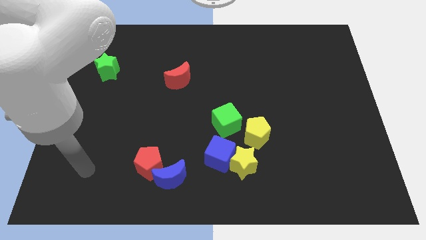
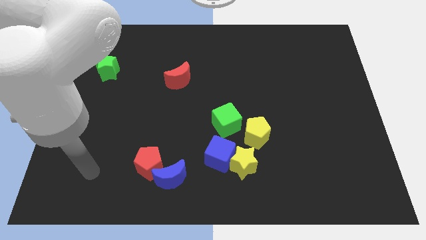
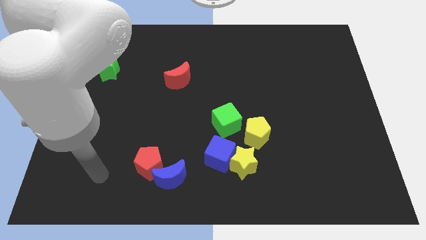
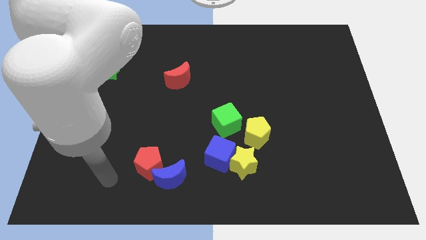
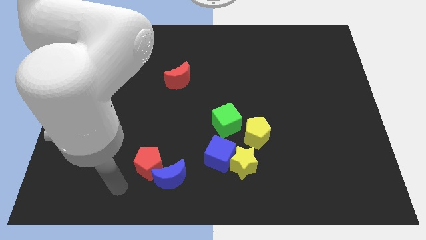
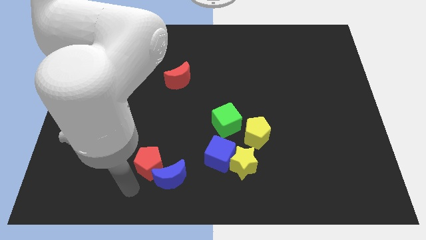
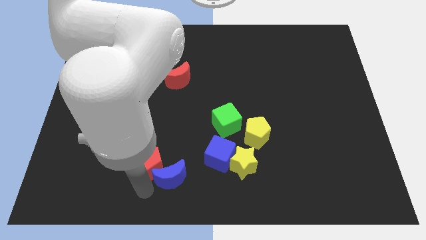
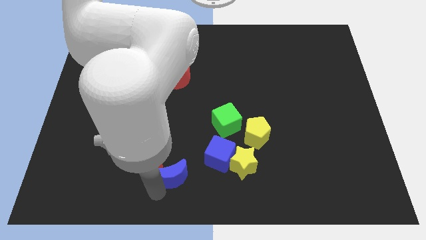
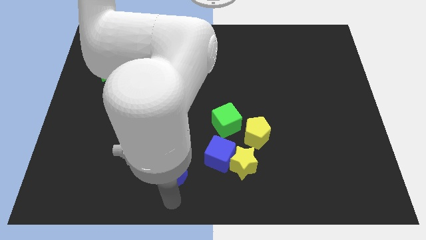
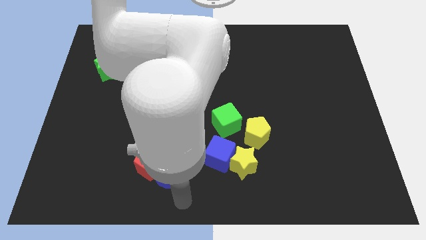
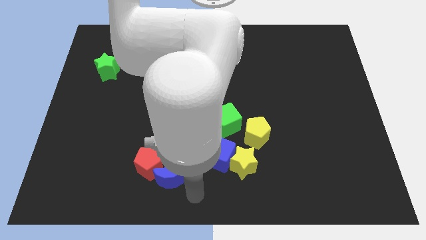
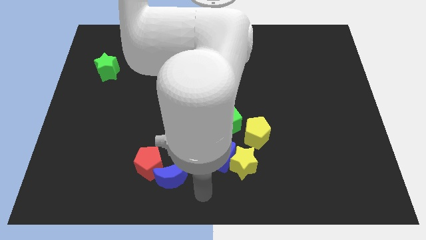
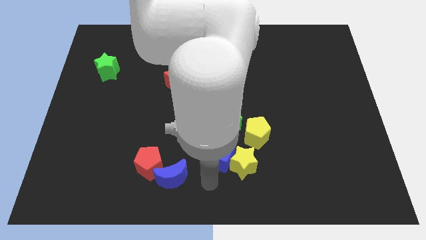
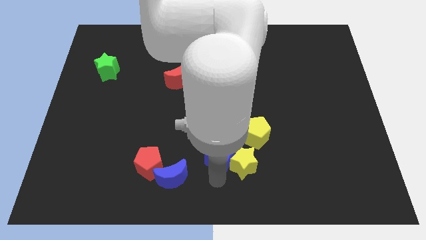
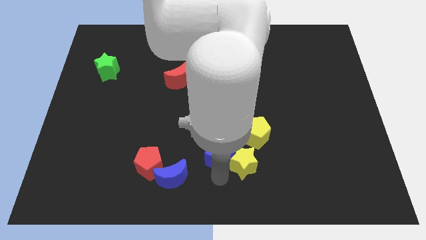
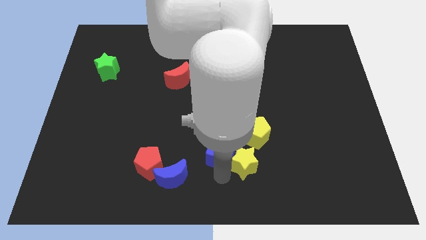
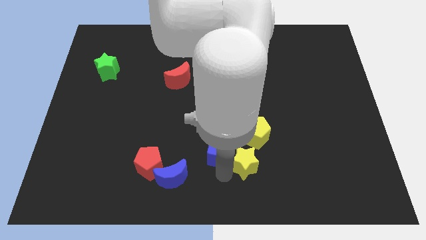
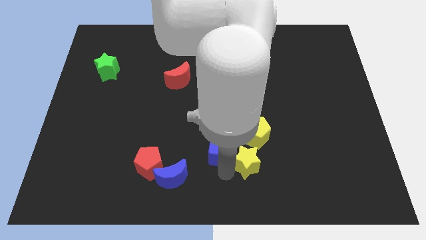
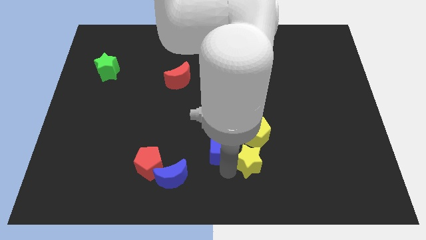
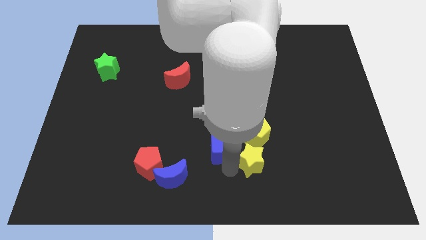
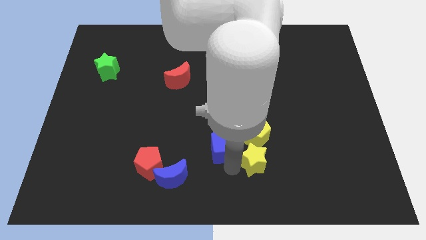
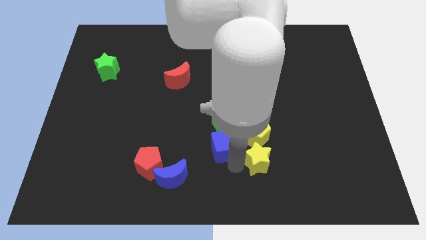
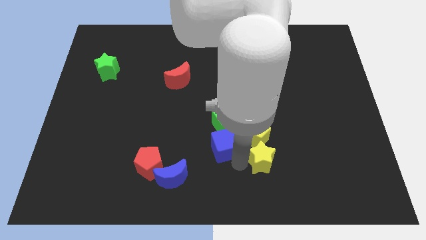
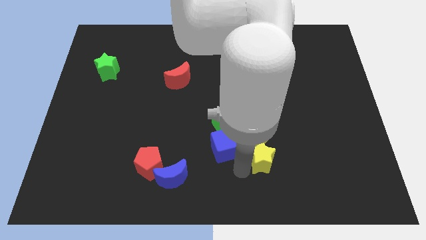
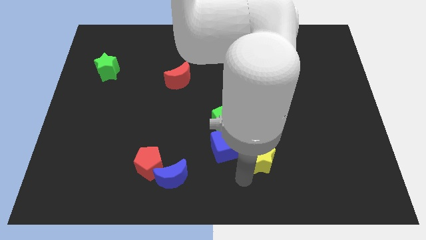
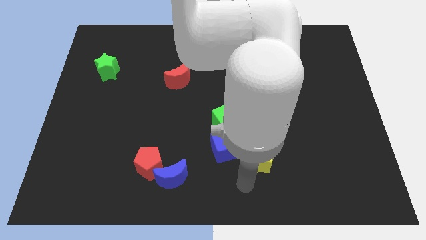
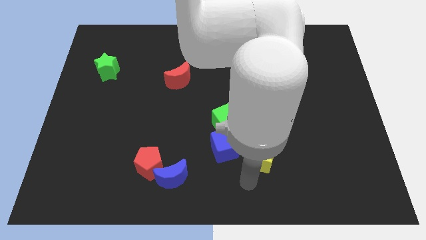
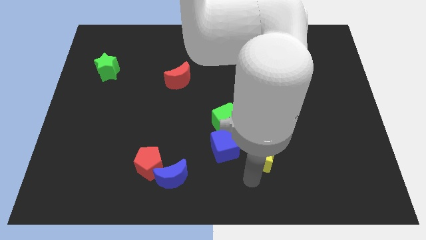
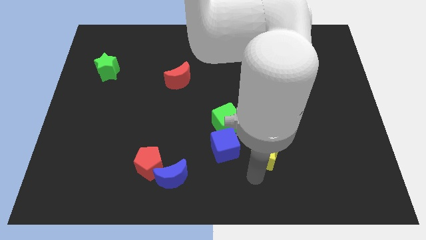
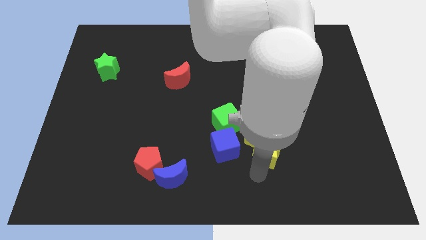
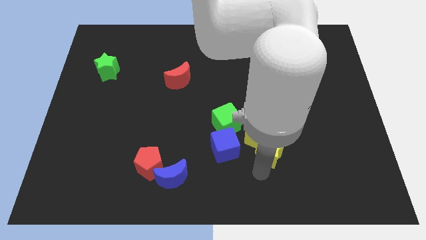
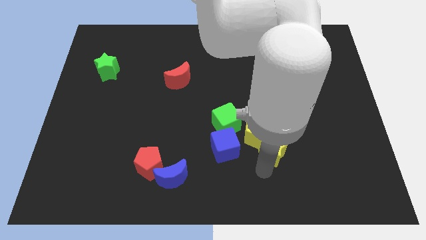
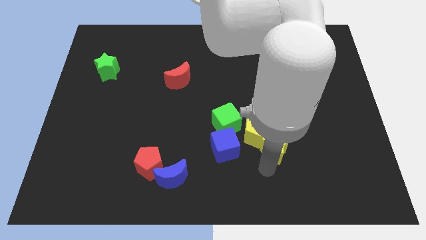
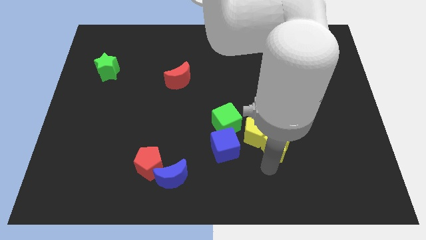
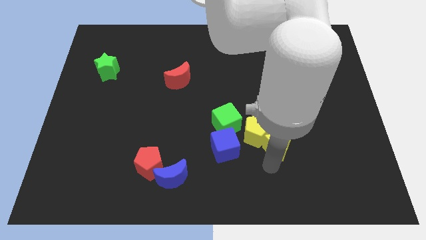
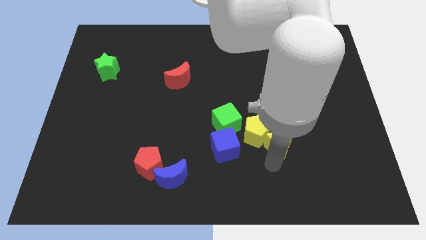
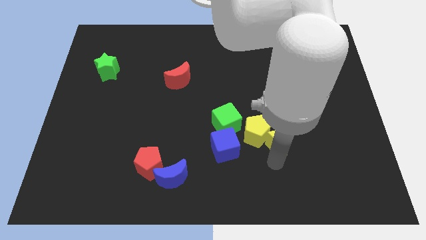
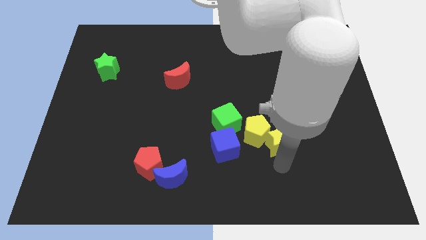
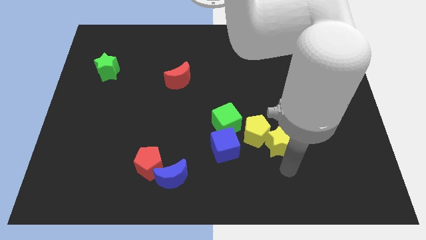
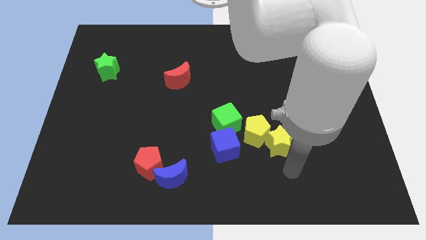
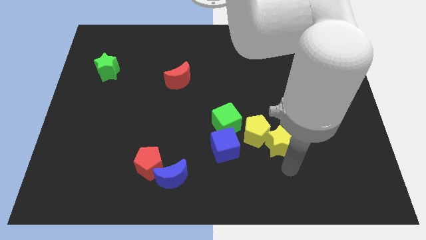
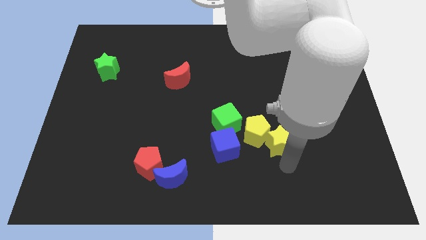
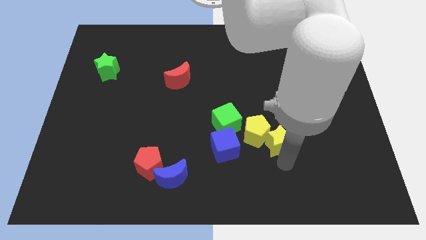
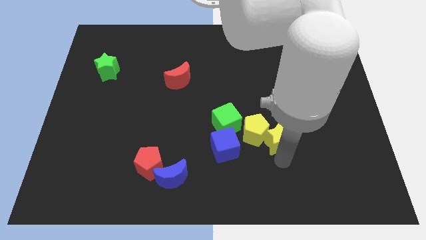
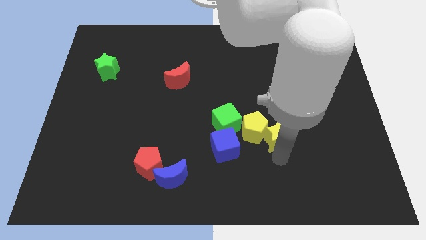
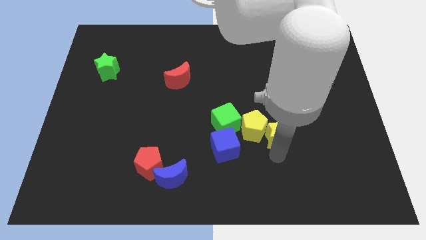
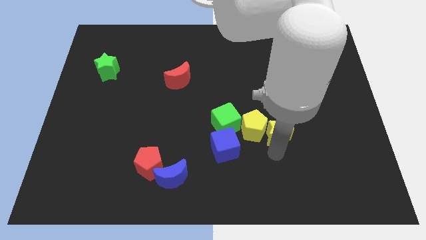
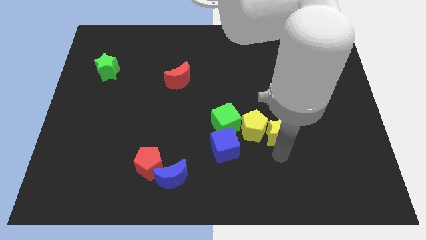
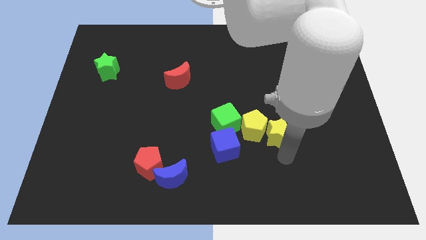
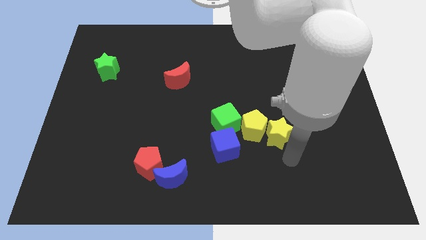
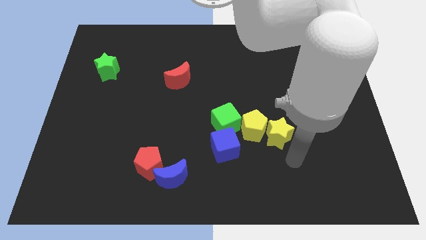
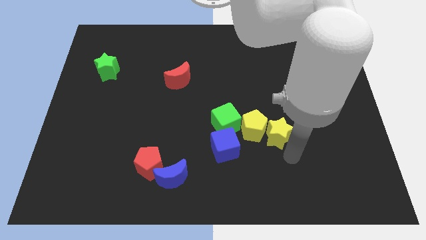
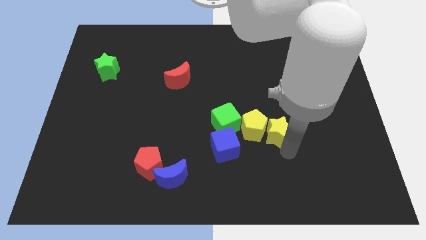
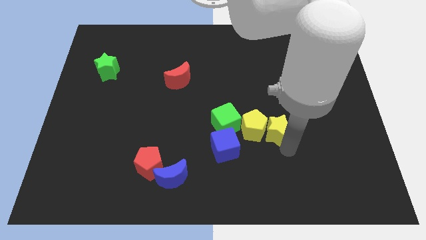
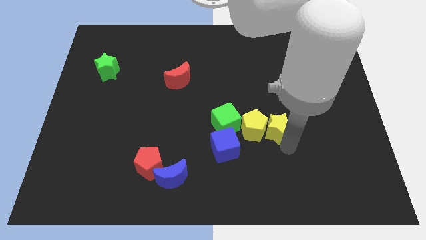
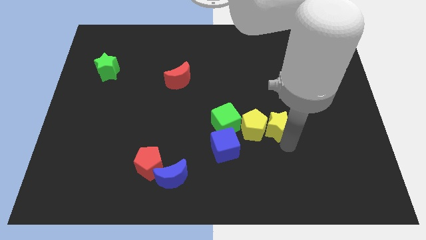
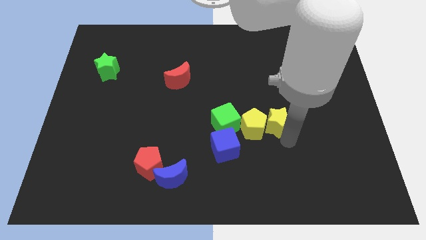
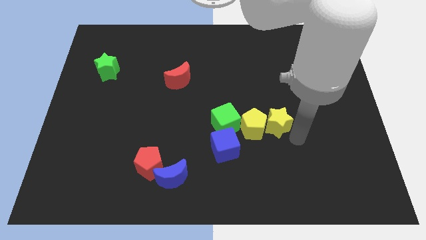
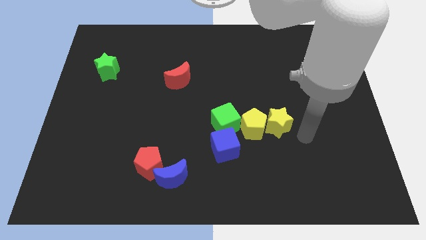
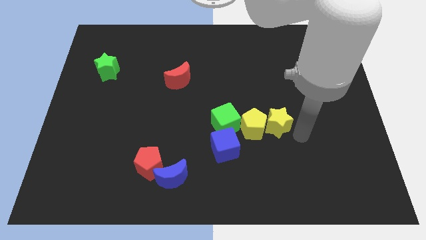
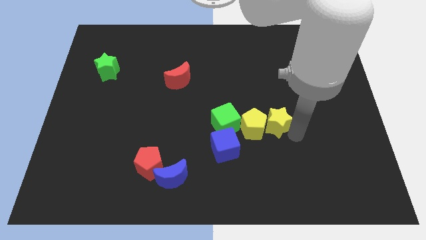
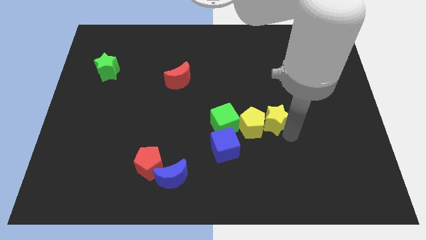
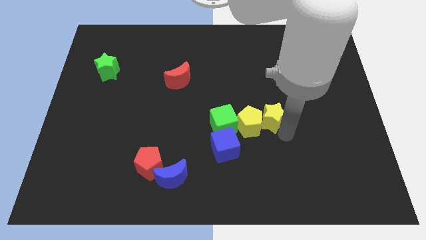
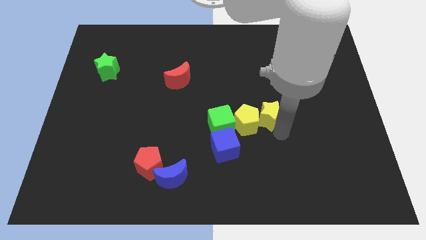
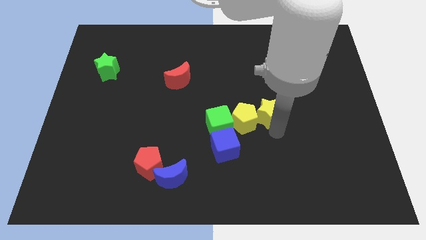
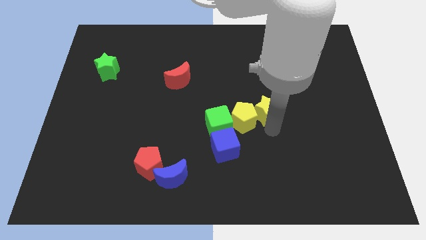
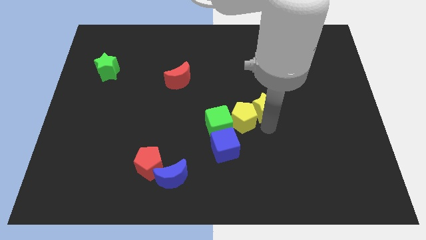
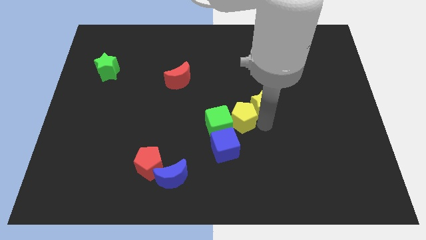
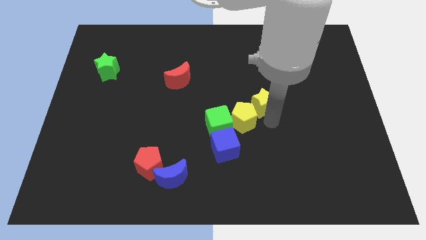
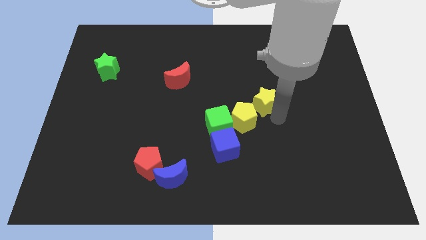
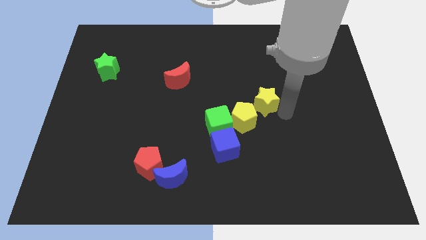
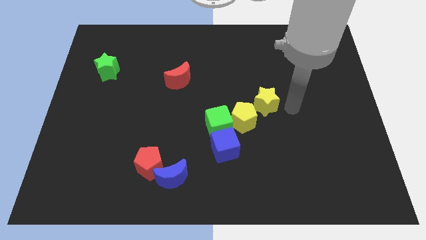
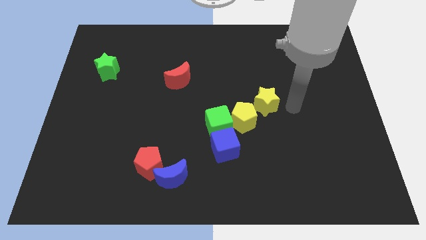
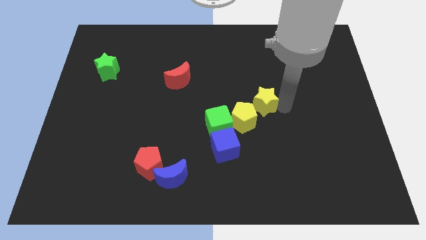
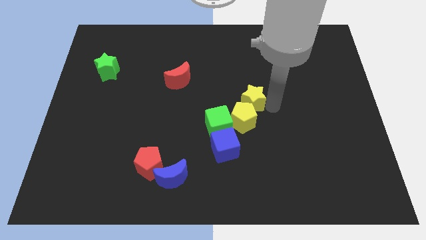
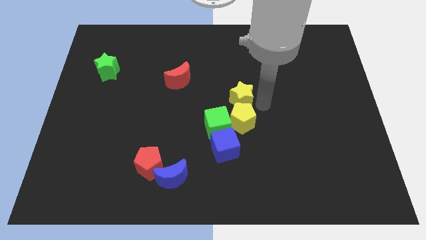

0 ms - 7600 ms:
move the yellow star to the top left of the yellow pentagon

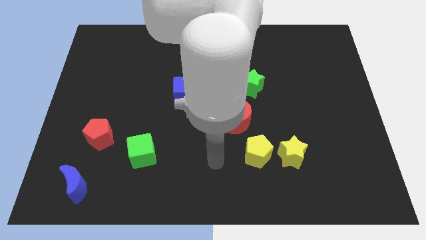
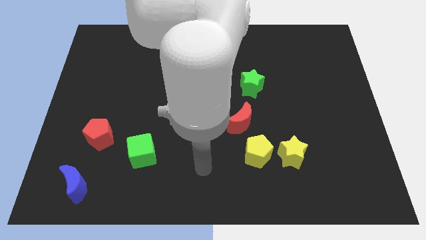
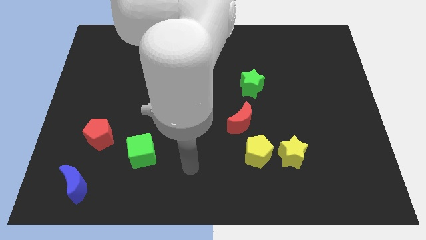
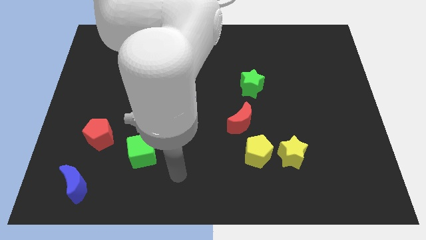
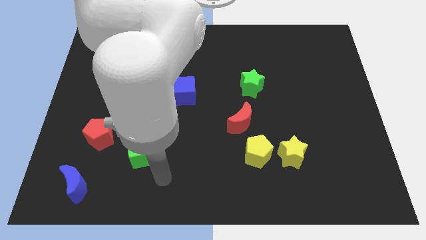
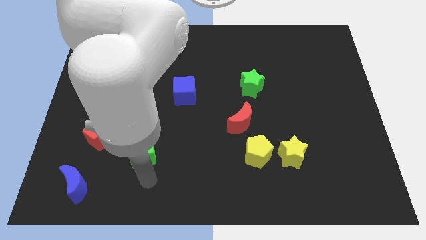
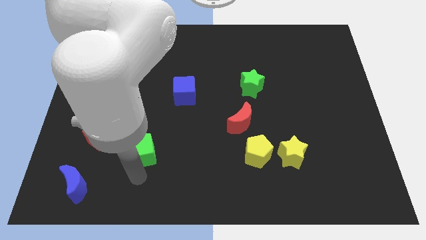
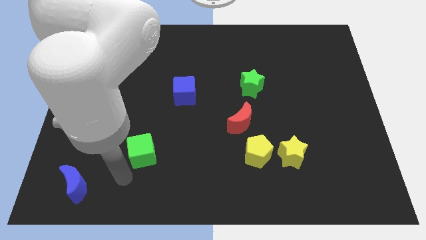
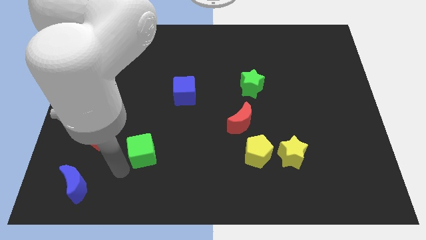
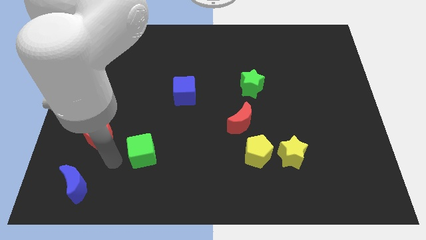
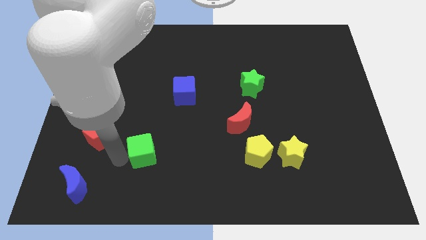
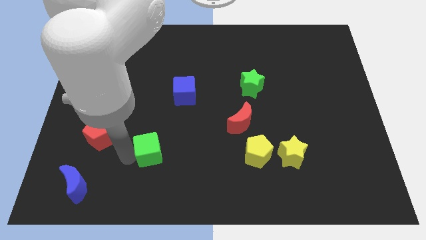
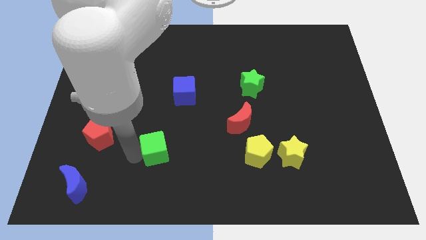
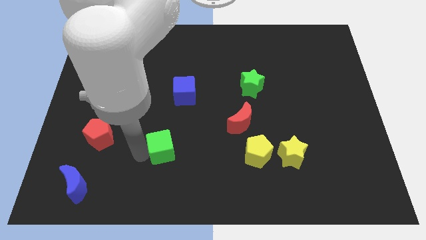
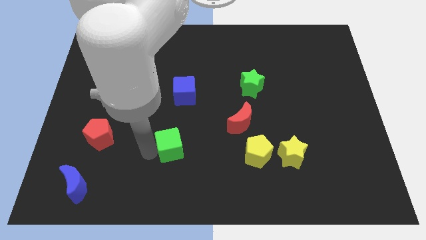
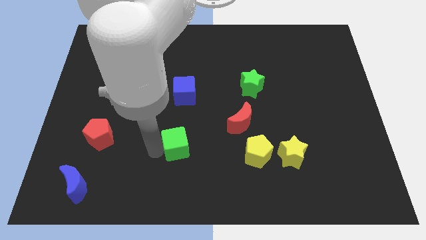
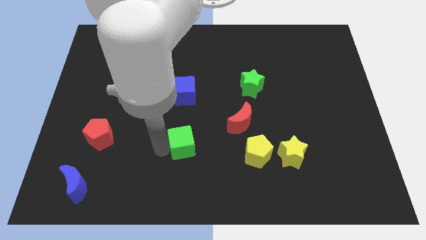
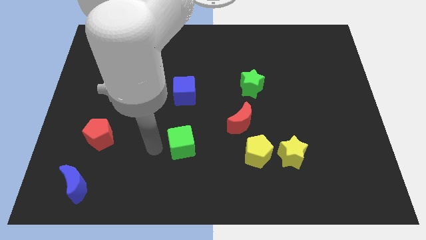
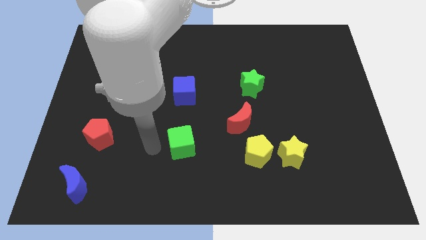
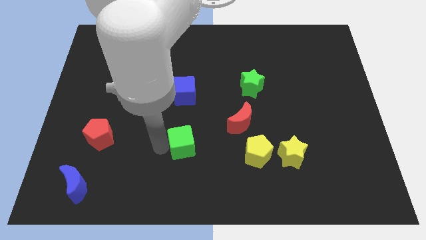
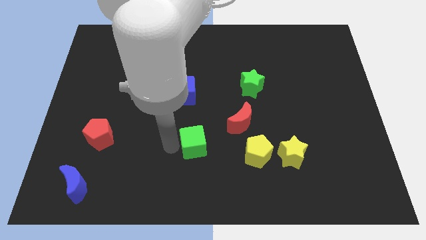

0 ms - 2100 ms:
slide the green cube to the bottom left of the red moon
